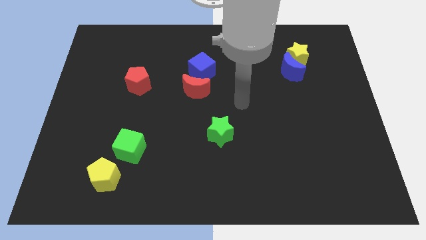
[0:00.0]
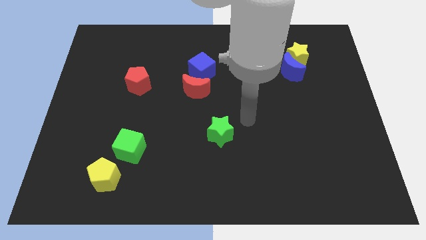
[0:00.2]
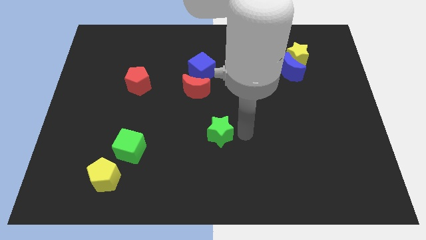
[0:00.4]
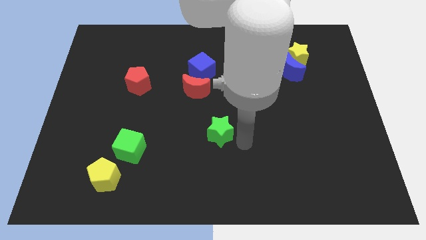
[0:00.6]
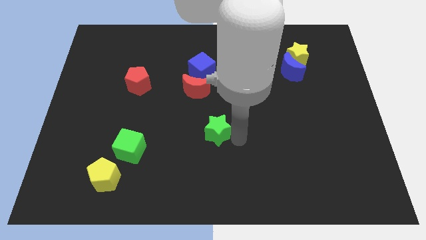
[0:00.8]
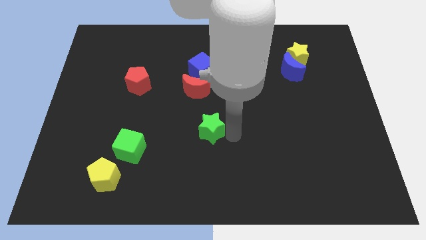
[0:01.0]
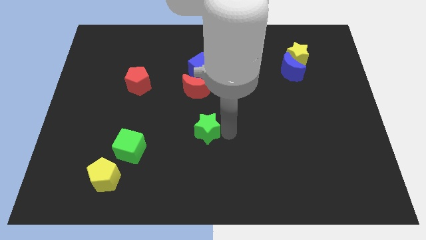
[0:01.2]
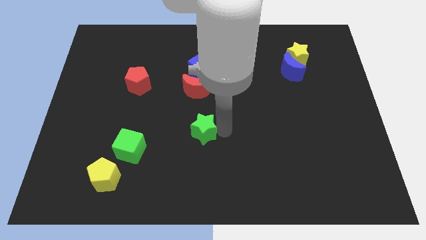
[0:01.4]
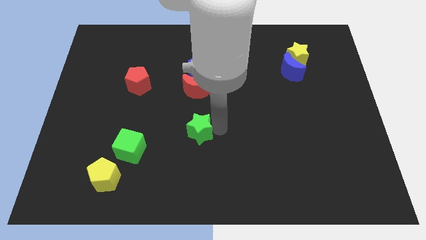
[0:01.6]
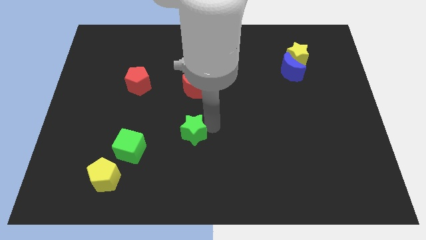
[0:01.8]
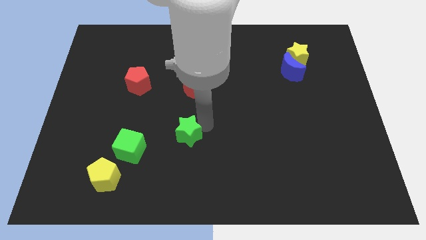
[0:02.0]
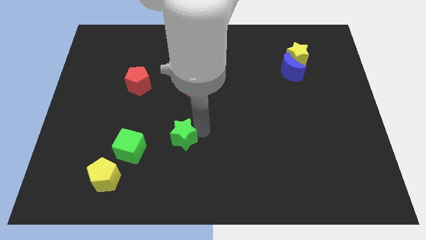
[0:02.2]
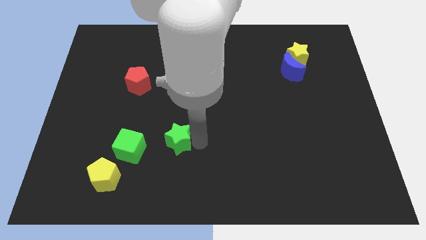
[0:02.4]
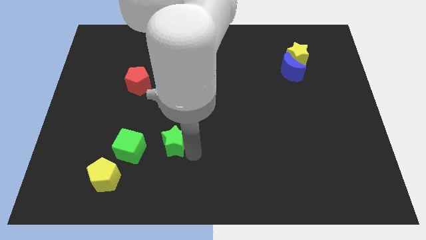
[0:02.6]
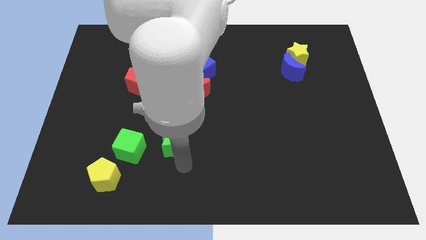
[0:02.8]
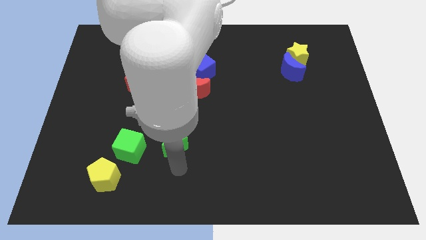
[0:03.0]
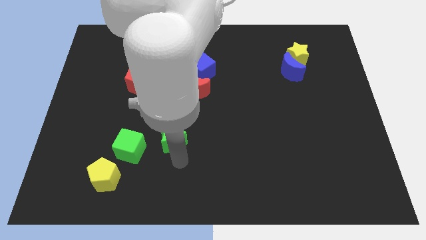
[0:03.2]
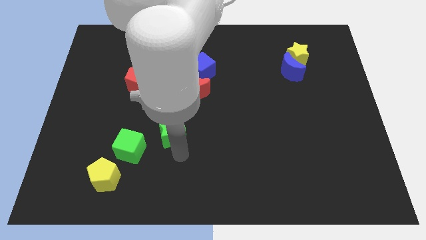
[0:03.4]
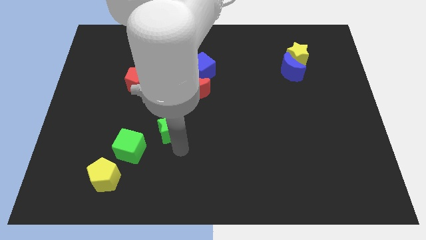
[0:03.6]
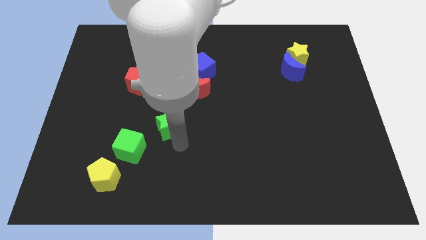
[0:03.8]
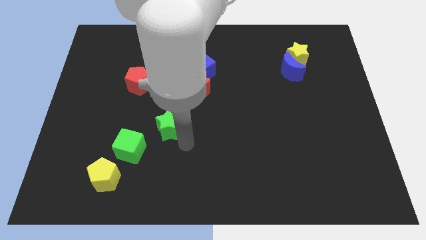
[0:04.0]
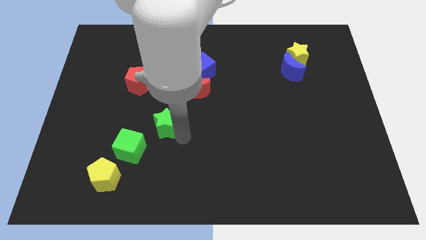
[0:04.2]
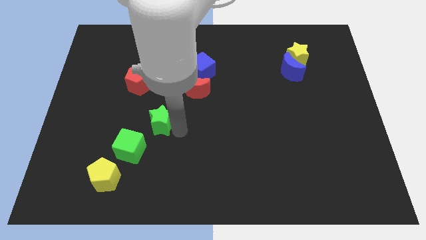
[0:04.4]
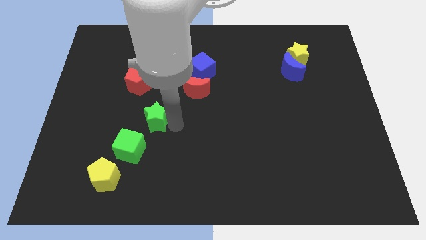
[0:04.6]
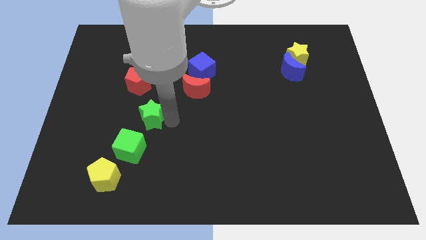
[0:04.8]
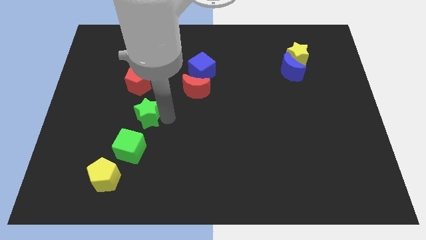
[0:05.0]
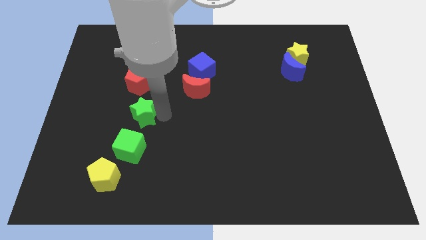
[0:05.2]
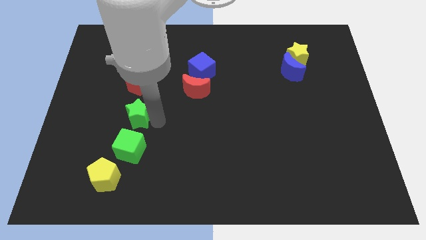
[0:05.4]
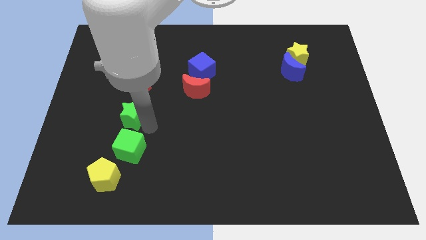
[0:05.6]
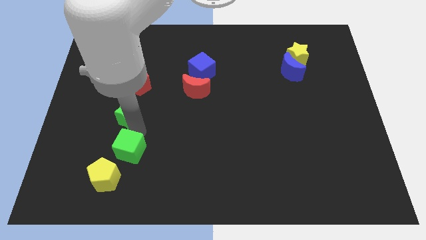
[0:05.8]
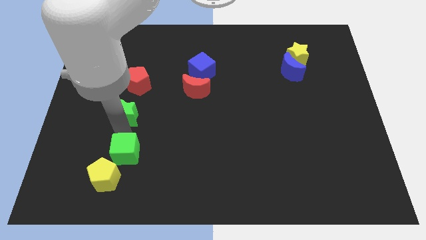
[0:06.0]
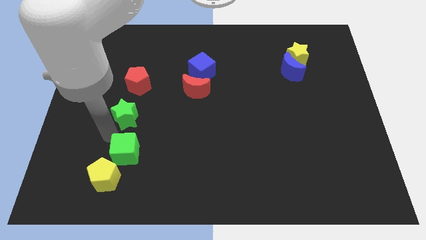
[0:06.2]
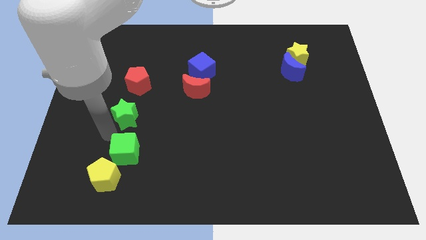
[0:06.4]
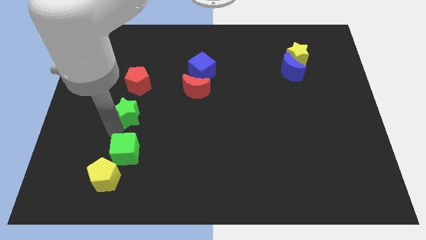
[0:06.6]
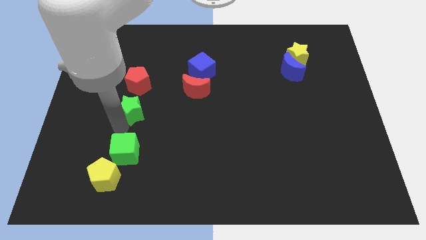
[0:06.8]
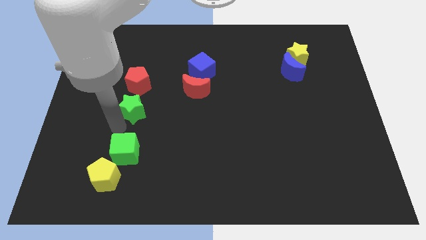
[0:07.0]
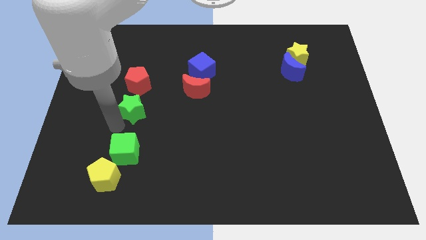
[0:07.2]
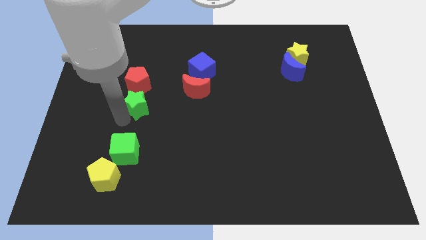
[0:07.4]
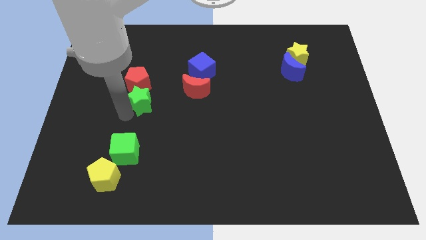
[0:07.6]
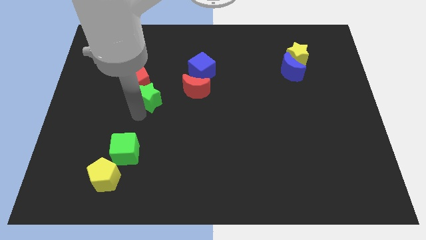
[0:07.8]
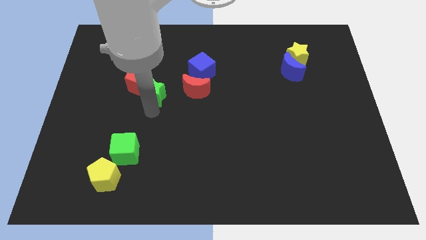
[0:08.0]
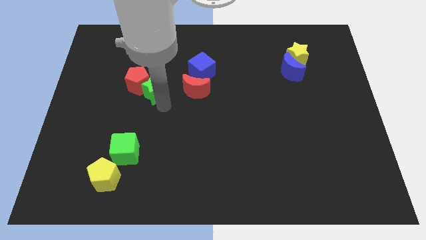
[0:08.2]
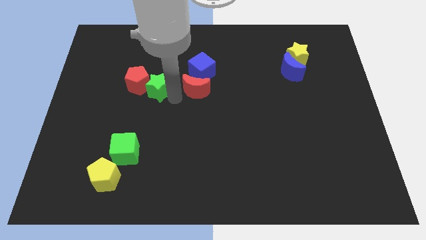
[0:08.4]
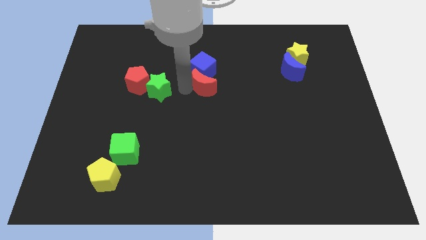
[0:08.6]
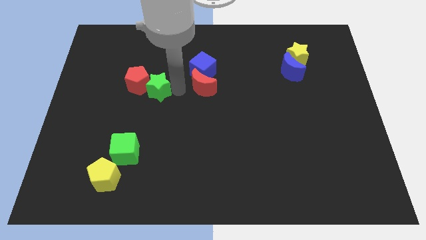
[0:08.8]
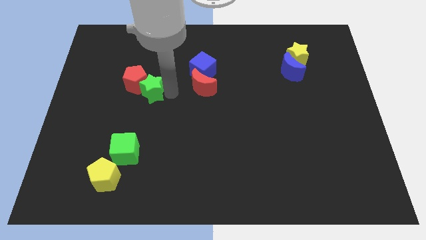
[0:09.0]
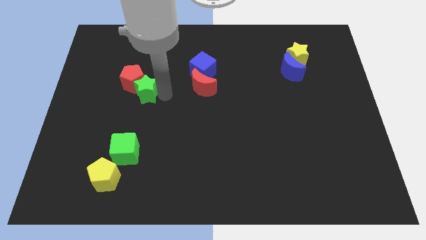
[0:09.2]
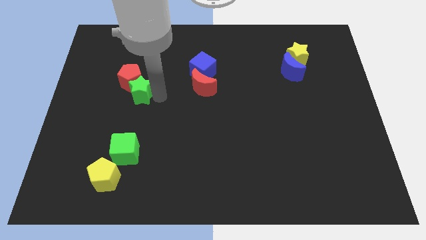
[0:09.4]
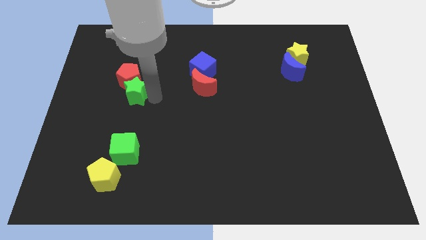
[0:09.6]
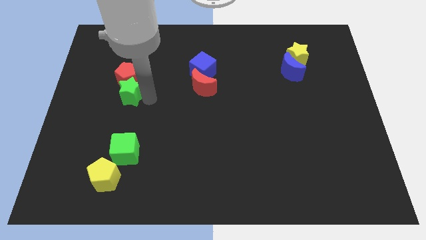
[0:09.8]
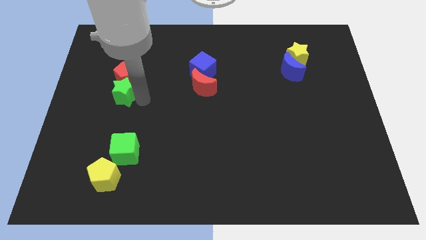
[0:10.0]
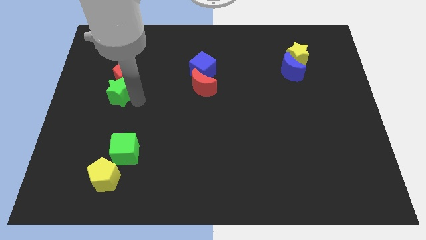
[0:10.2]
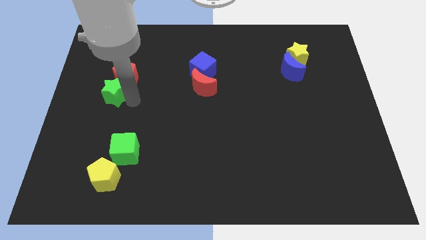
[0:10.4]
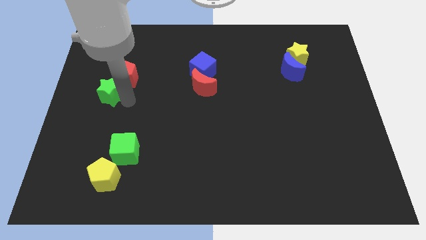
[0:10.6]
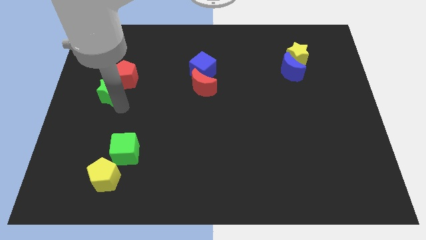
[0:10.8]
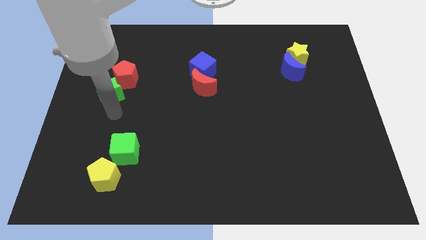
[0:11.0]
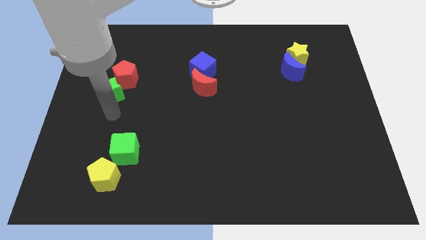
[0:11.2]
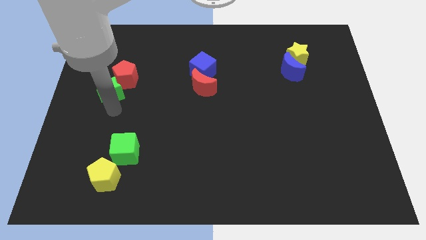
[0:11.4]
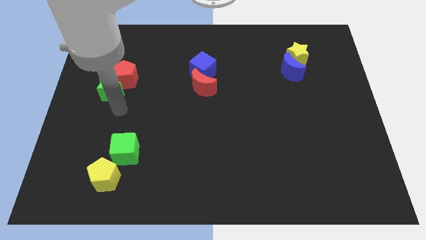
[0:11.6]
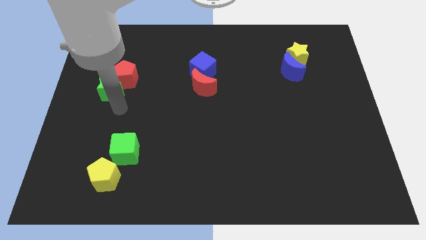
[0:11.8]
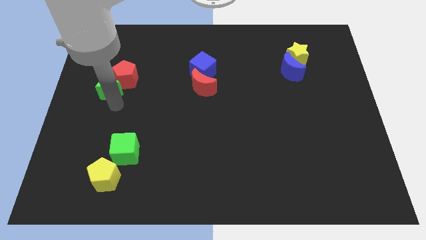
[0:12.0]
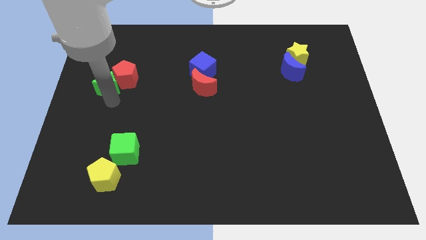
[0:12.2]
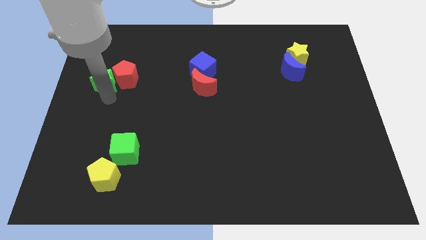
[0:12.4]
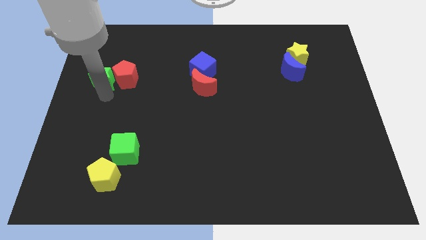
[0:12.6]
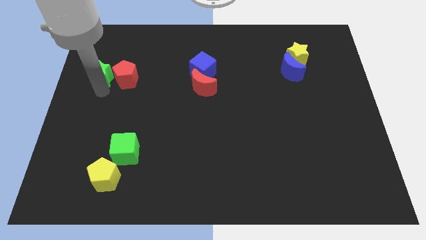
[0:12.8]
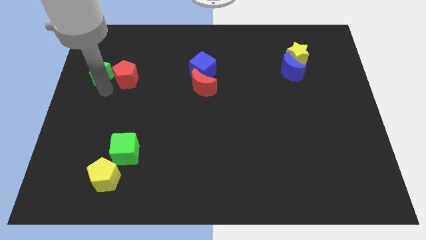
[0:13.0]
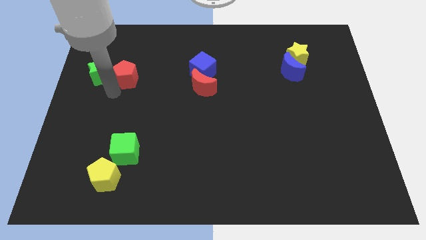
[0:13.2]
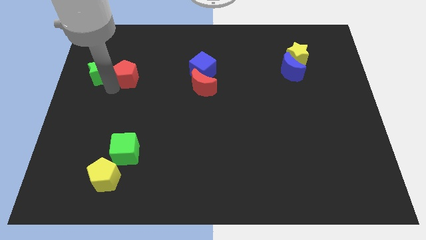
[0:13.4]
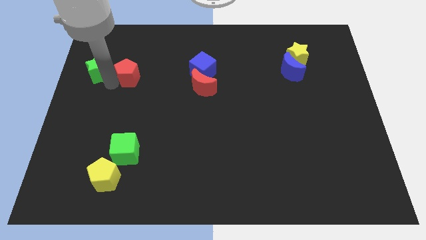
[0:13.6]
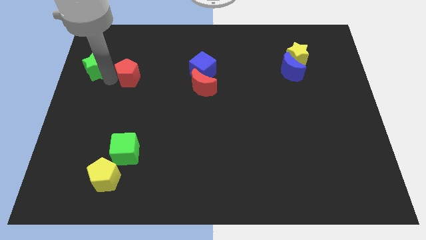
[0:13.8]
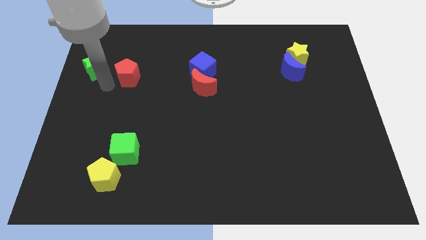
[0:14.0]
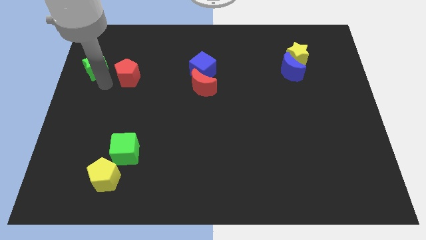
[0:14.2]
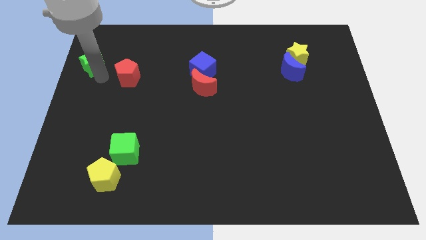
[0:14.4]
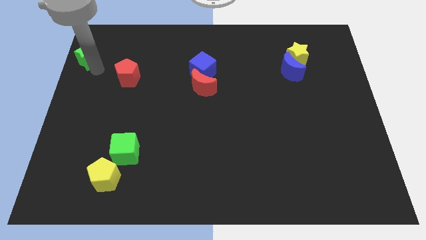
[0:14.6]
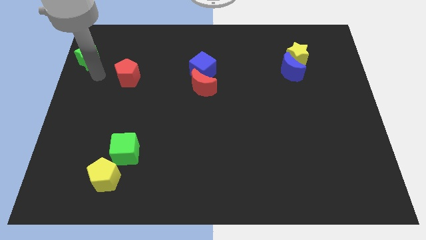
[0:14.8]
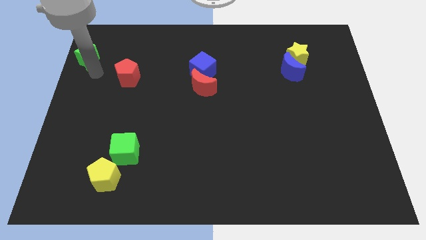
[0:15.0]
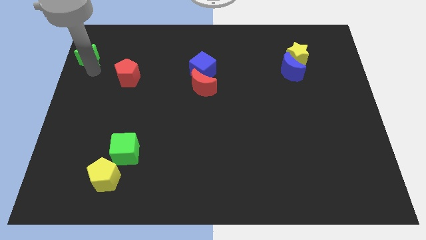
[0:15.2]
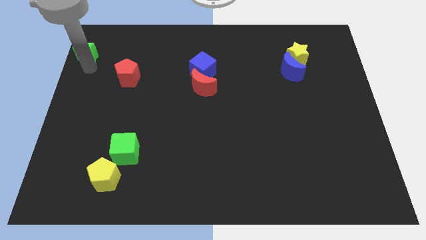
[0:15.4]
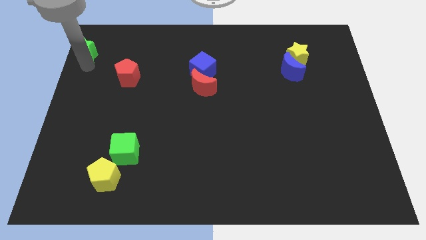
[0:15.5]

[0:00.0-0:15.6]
move the green star to the top left
